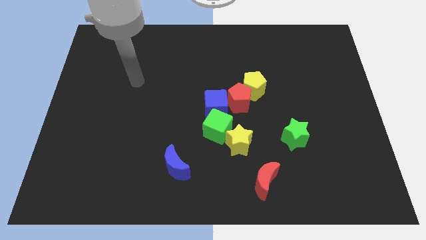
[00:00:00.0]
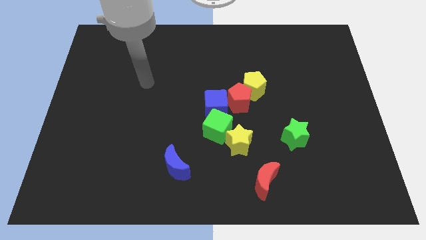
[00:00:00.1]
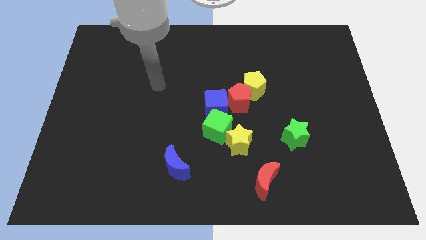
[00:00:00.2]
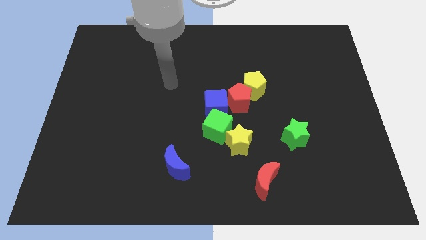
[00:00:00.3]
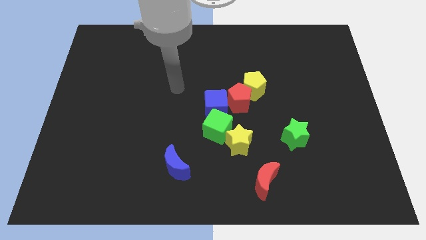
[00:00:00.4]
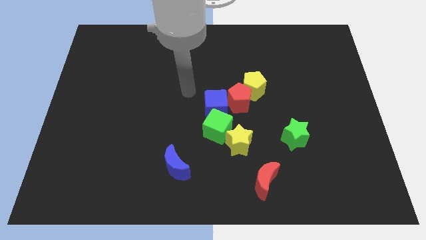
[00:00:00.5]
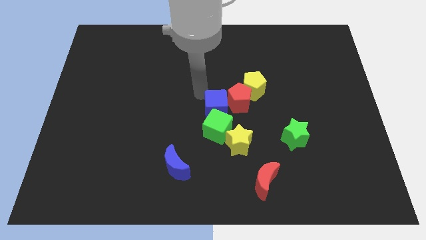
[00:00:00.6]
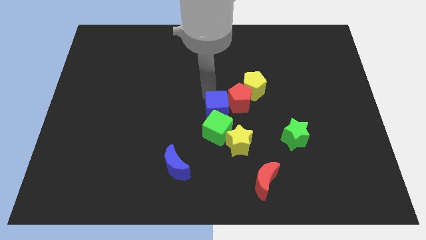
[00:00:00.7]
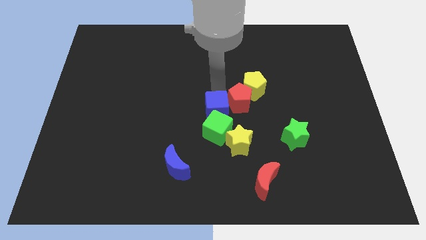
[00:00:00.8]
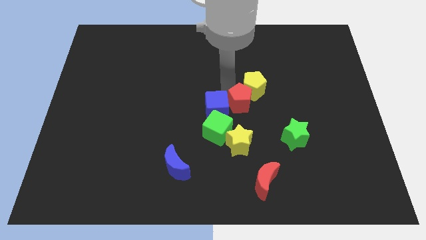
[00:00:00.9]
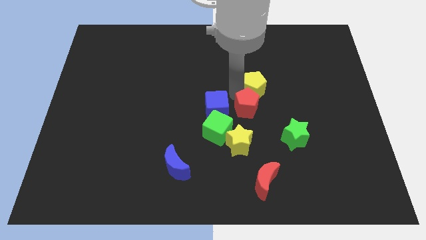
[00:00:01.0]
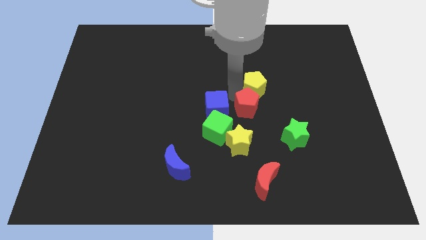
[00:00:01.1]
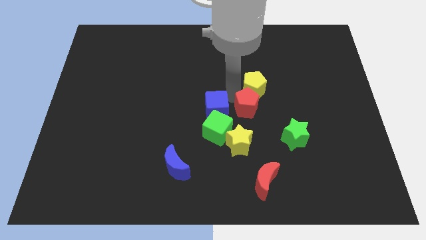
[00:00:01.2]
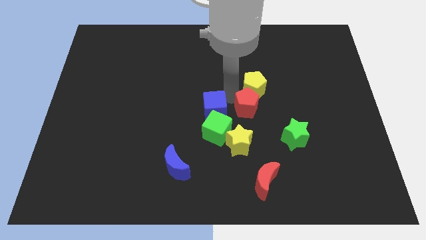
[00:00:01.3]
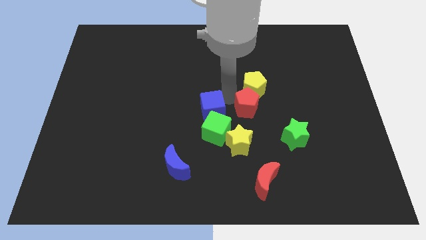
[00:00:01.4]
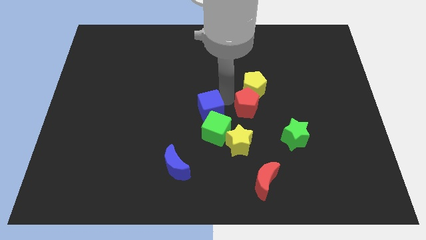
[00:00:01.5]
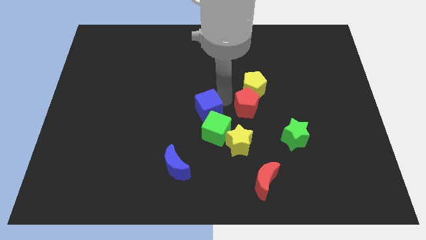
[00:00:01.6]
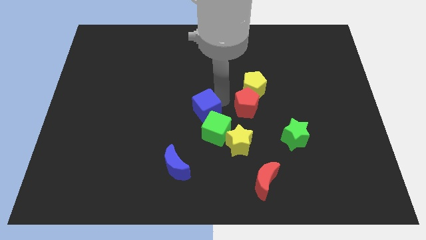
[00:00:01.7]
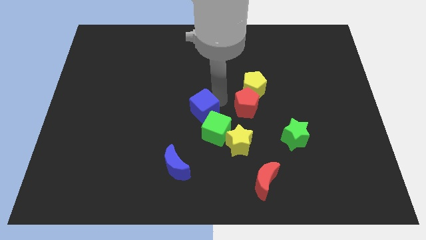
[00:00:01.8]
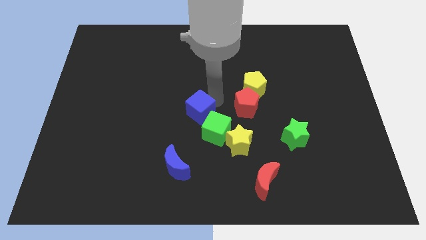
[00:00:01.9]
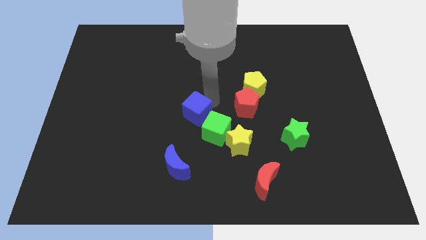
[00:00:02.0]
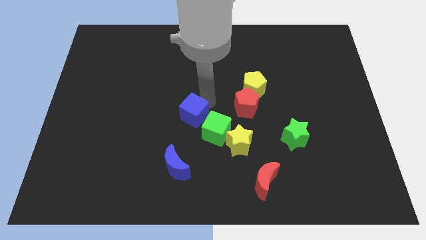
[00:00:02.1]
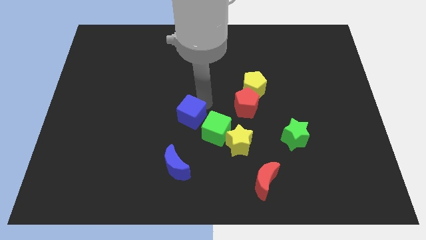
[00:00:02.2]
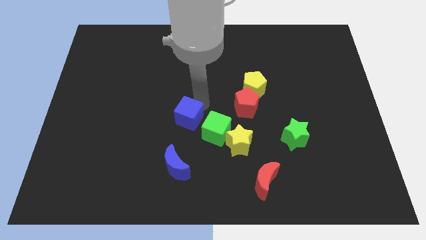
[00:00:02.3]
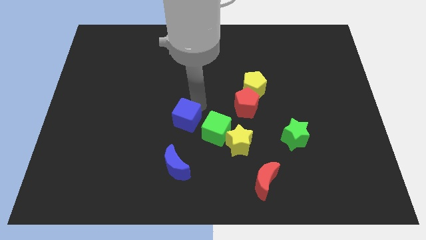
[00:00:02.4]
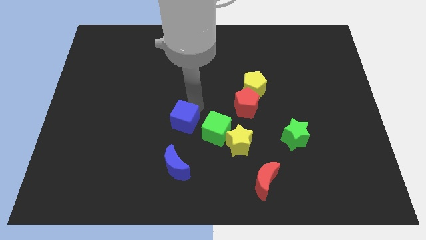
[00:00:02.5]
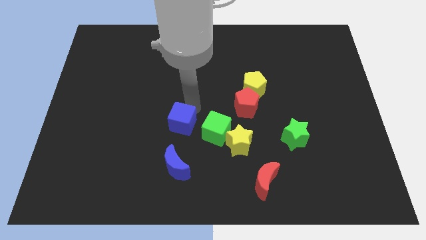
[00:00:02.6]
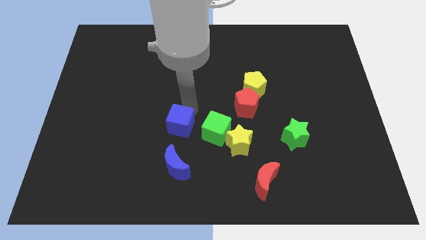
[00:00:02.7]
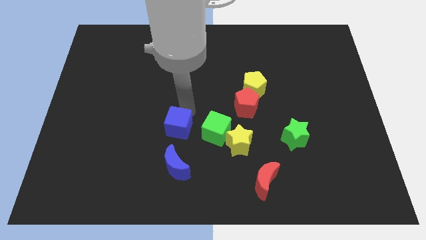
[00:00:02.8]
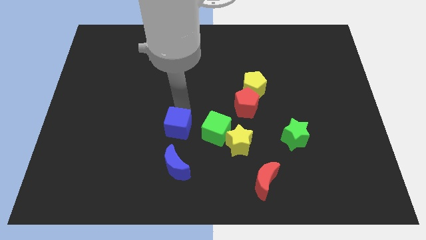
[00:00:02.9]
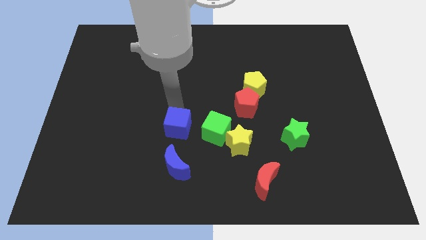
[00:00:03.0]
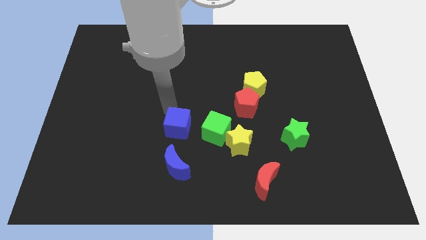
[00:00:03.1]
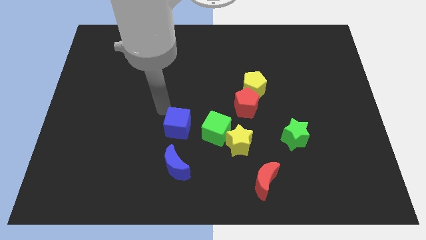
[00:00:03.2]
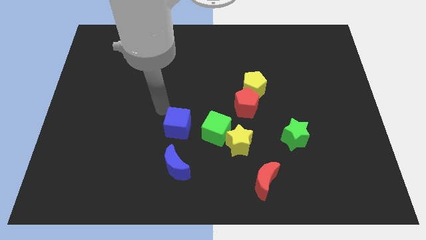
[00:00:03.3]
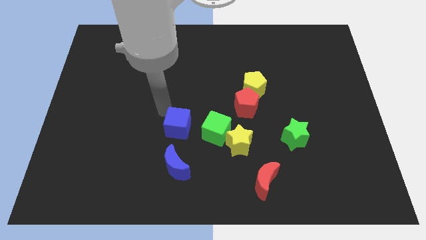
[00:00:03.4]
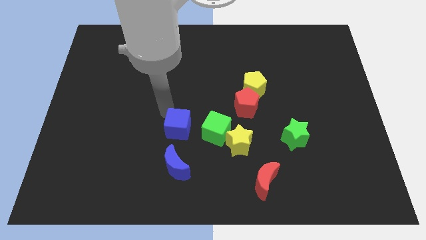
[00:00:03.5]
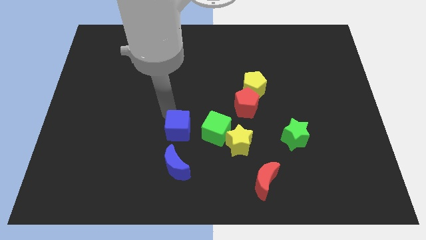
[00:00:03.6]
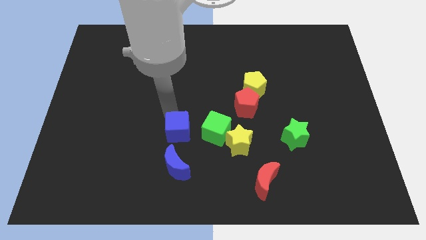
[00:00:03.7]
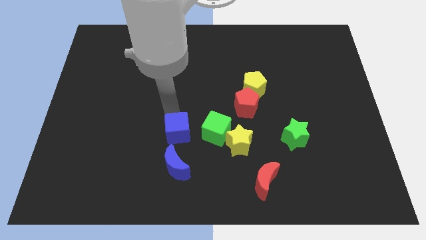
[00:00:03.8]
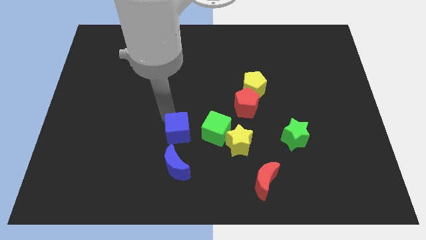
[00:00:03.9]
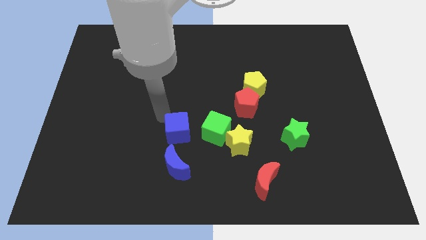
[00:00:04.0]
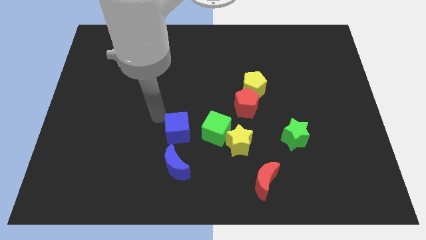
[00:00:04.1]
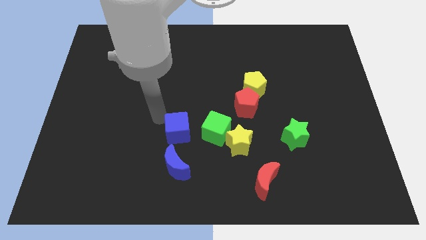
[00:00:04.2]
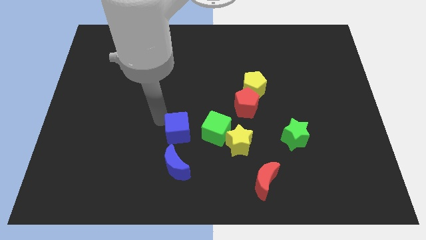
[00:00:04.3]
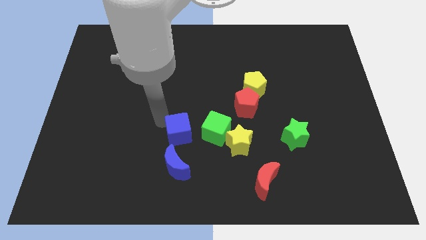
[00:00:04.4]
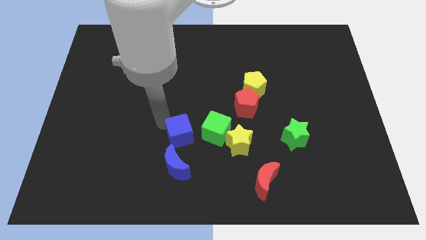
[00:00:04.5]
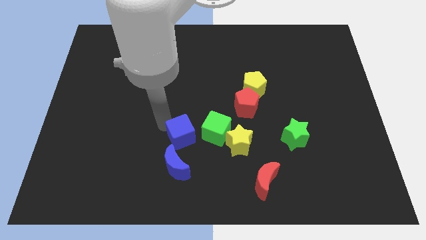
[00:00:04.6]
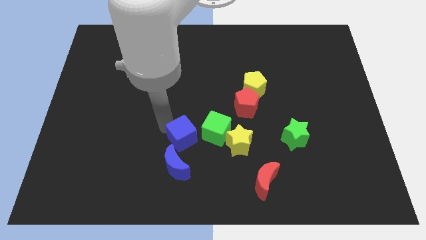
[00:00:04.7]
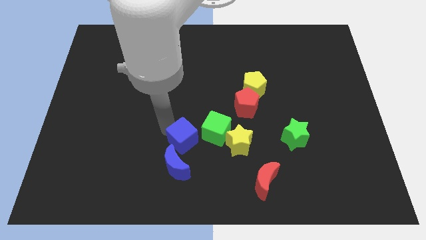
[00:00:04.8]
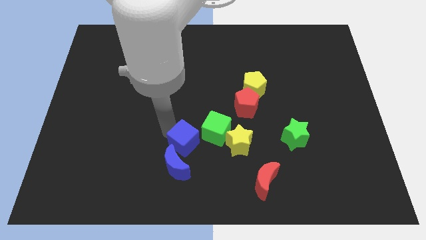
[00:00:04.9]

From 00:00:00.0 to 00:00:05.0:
push the blue cube a little bit downwards

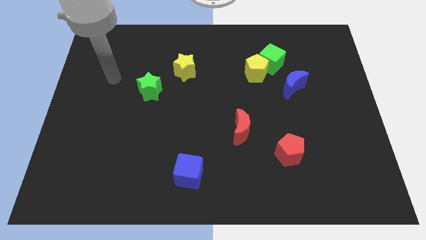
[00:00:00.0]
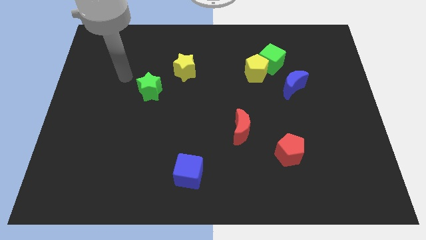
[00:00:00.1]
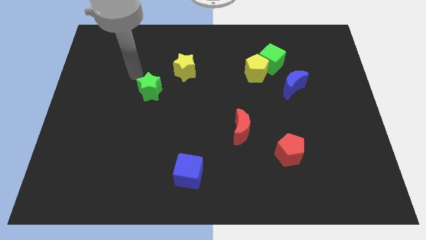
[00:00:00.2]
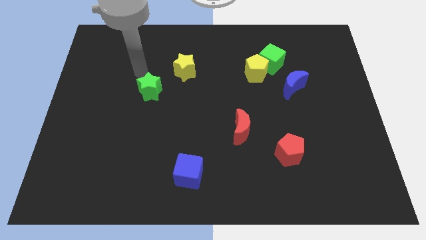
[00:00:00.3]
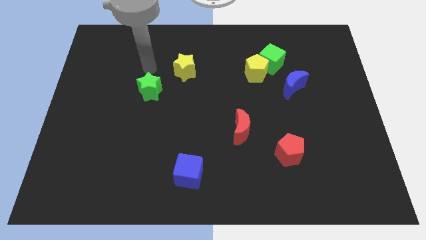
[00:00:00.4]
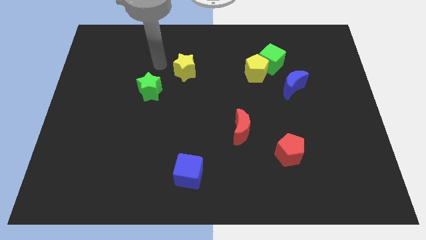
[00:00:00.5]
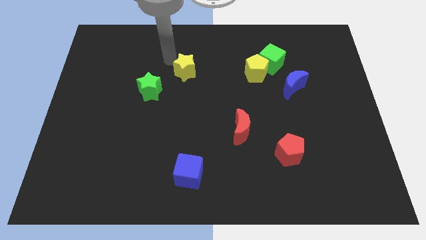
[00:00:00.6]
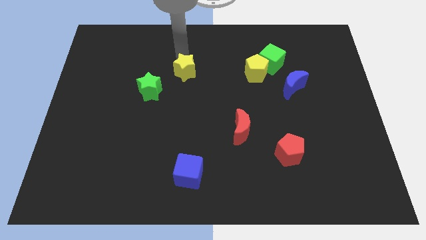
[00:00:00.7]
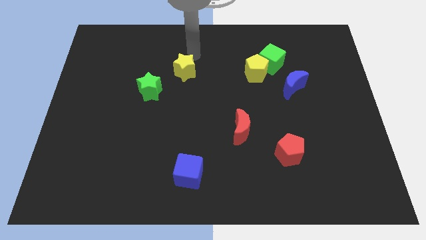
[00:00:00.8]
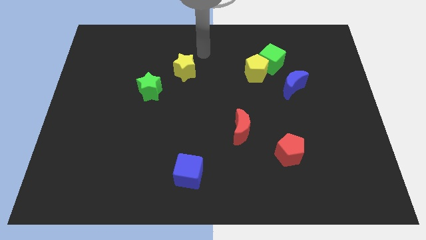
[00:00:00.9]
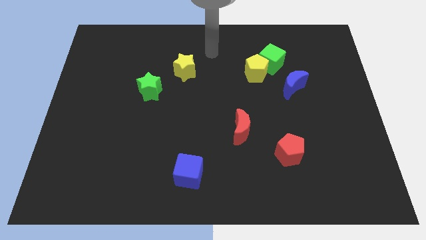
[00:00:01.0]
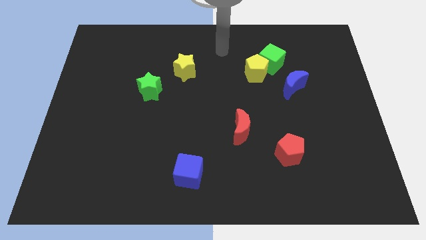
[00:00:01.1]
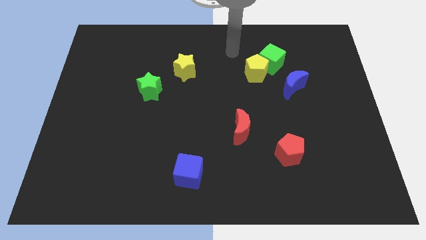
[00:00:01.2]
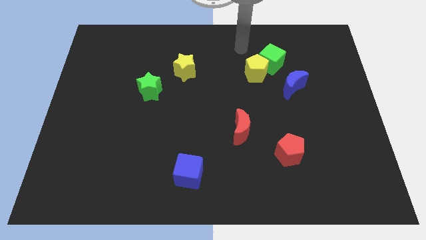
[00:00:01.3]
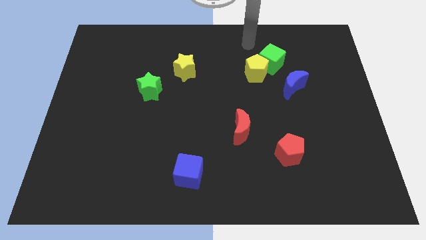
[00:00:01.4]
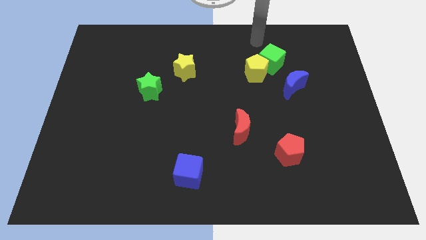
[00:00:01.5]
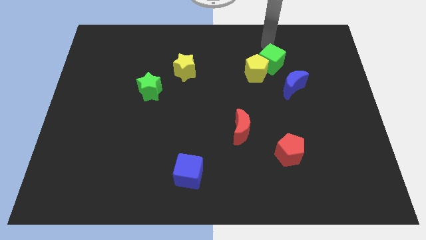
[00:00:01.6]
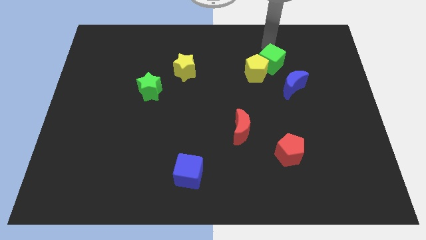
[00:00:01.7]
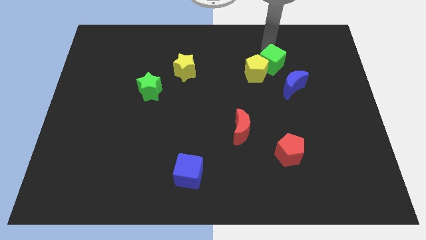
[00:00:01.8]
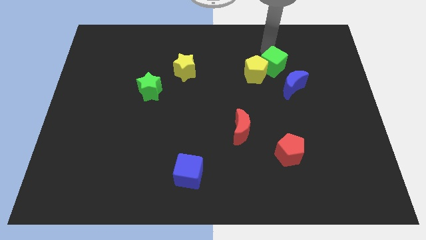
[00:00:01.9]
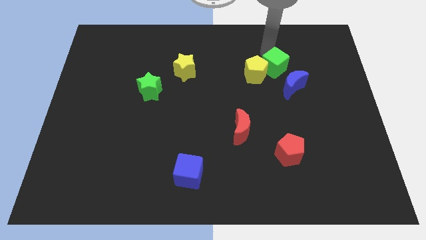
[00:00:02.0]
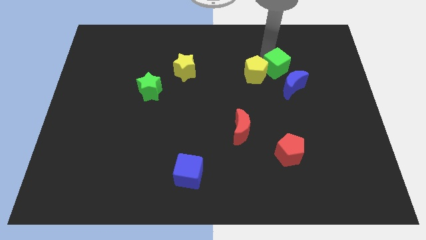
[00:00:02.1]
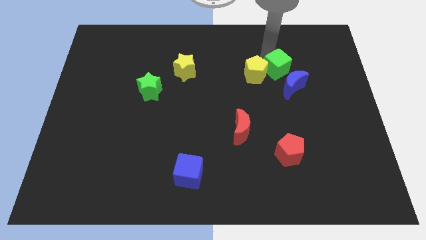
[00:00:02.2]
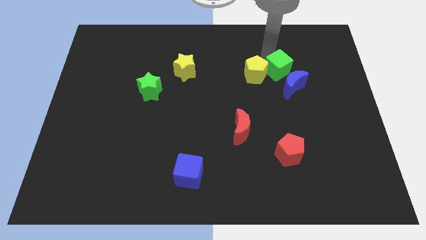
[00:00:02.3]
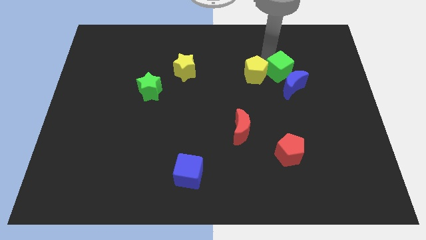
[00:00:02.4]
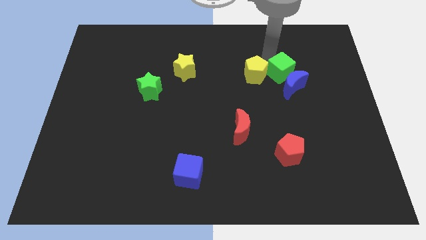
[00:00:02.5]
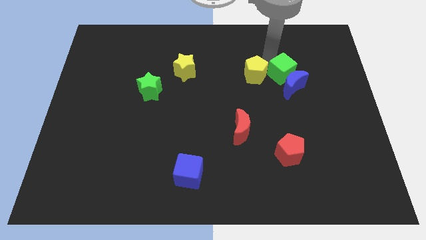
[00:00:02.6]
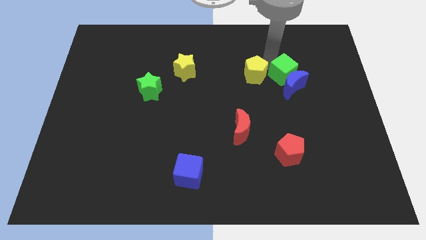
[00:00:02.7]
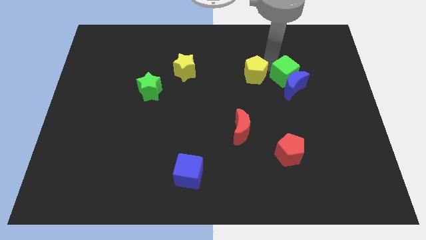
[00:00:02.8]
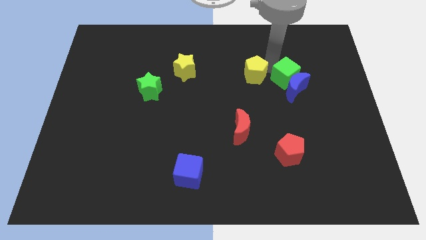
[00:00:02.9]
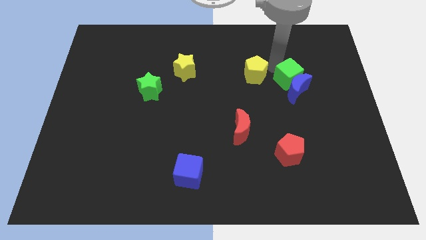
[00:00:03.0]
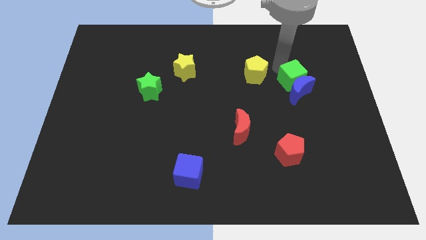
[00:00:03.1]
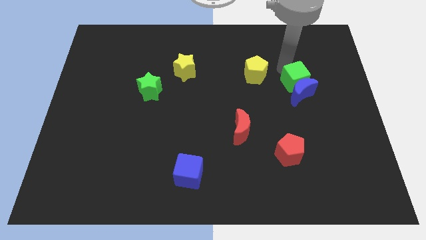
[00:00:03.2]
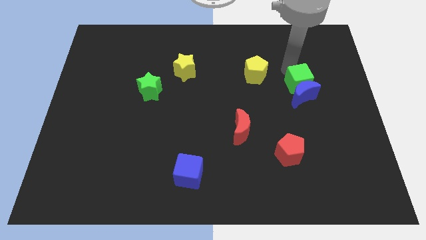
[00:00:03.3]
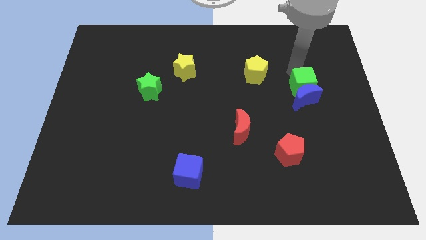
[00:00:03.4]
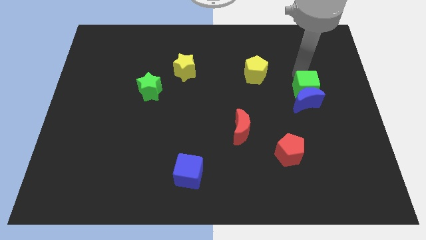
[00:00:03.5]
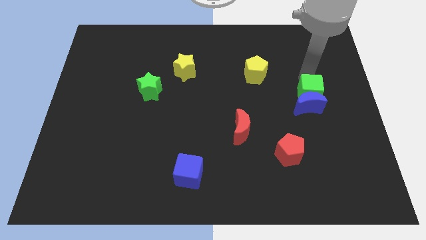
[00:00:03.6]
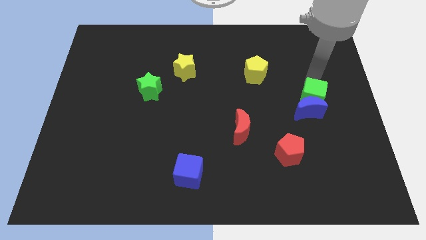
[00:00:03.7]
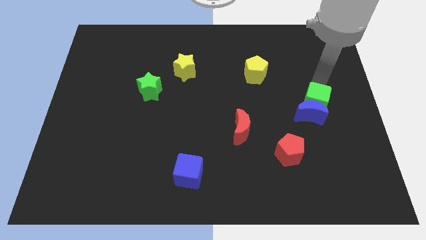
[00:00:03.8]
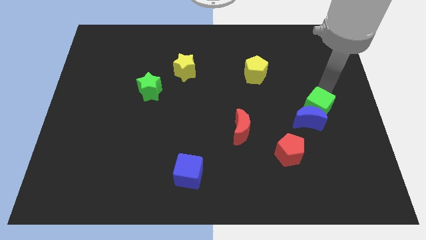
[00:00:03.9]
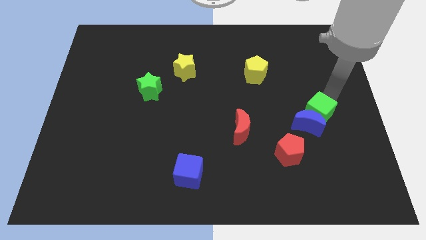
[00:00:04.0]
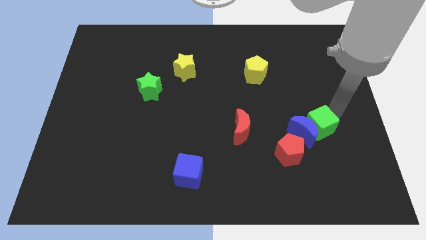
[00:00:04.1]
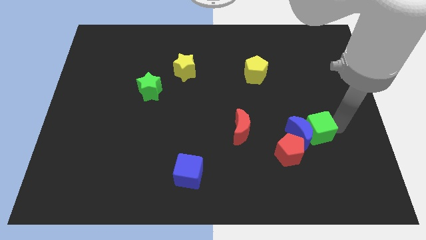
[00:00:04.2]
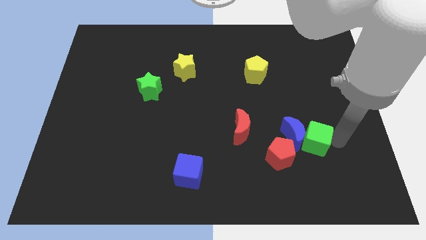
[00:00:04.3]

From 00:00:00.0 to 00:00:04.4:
push the green cube down
